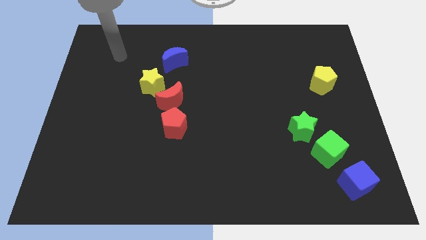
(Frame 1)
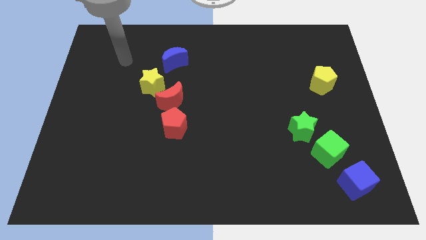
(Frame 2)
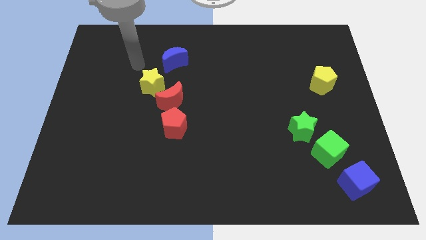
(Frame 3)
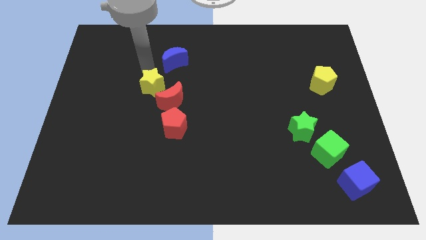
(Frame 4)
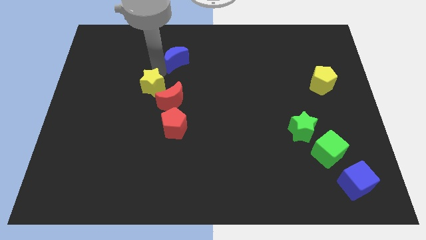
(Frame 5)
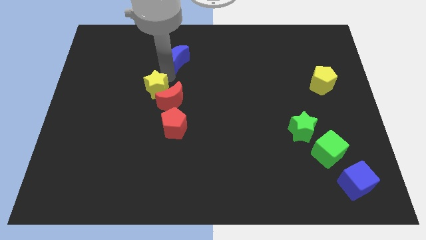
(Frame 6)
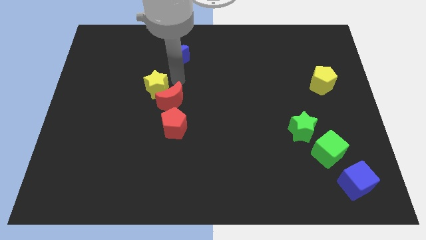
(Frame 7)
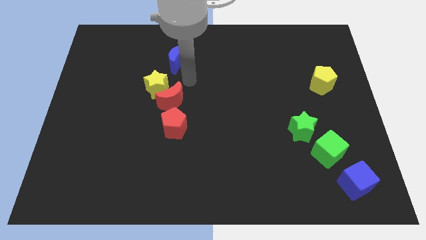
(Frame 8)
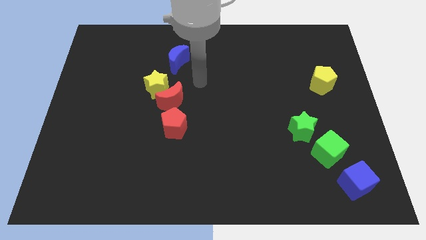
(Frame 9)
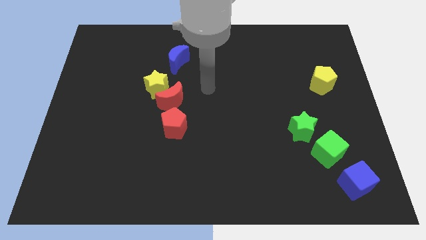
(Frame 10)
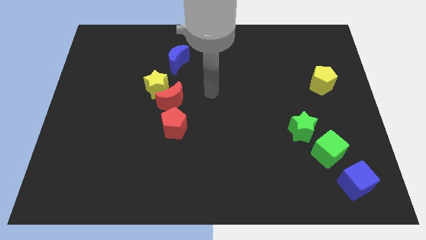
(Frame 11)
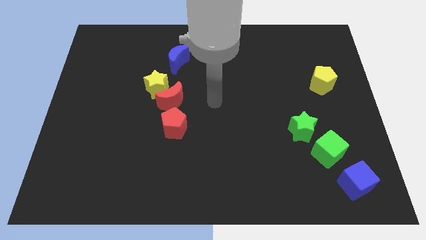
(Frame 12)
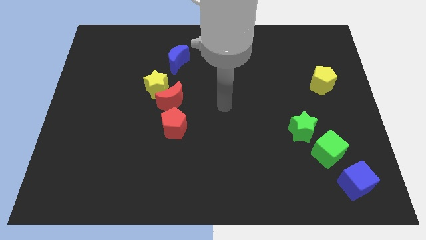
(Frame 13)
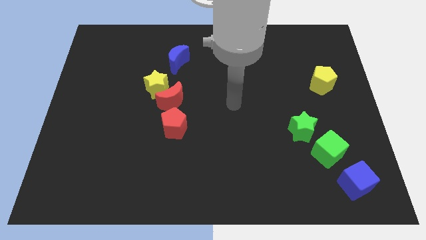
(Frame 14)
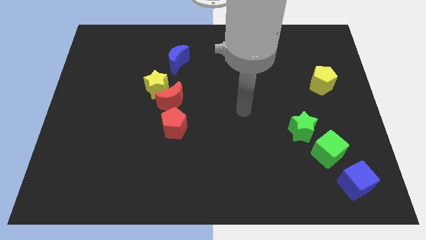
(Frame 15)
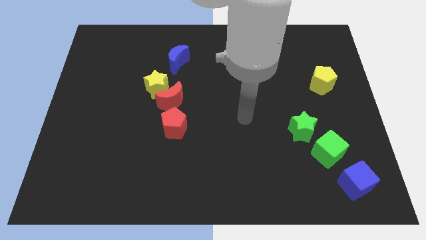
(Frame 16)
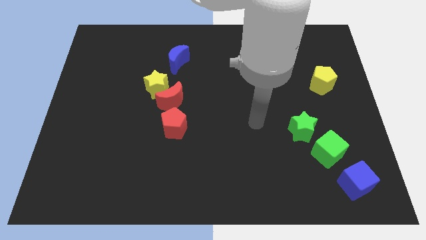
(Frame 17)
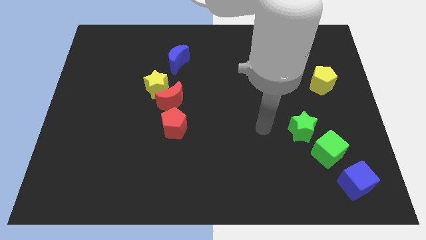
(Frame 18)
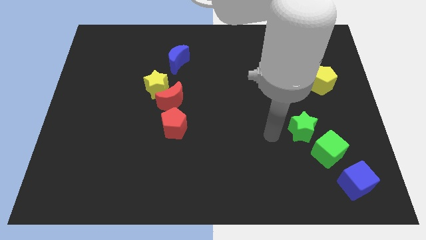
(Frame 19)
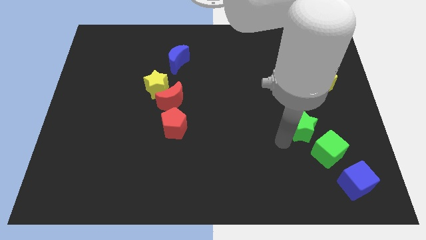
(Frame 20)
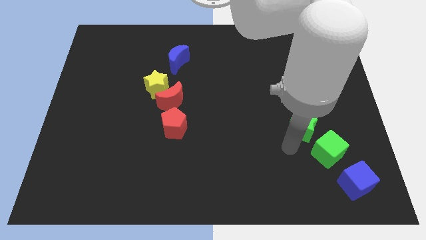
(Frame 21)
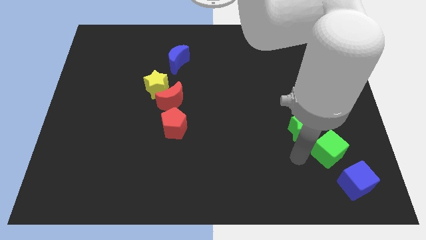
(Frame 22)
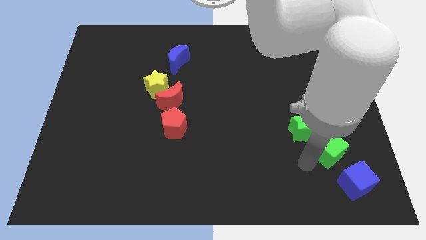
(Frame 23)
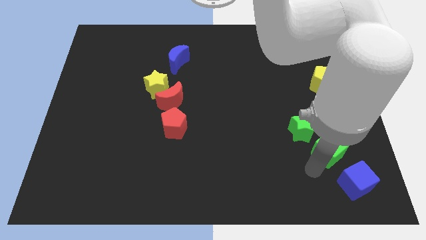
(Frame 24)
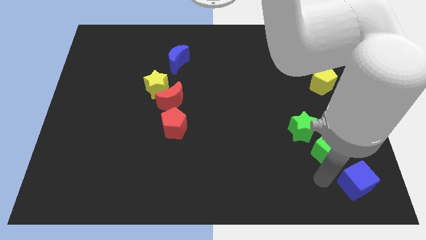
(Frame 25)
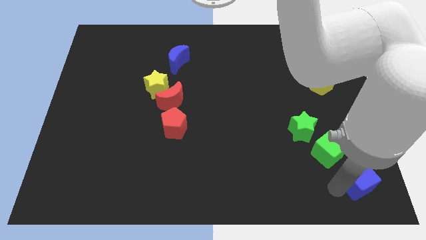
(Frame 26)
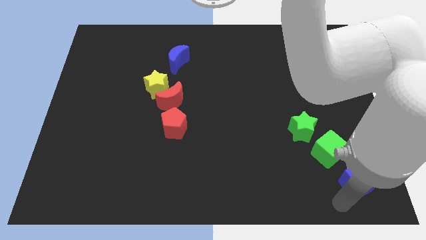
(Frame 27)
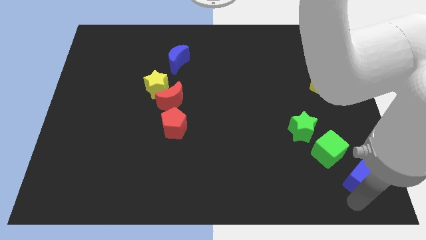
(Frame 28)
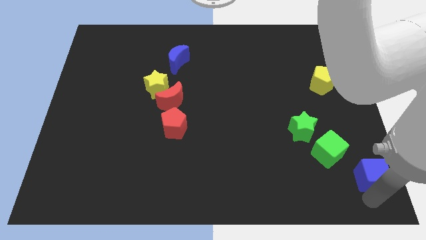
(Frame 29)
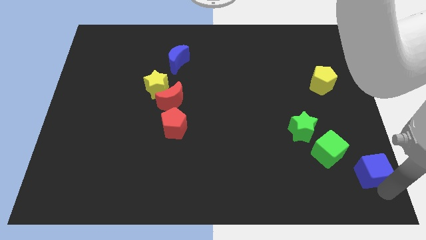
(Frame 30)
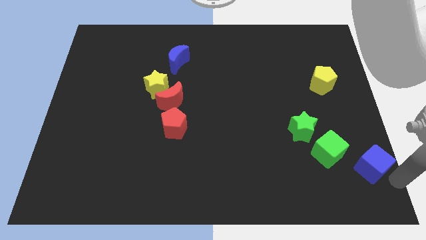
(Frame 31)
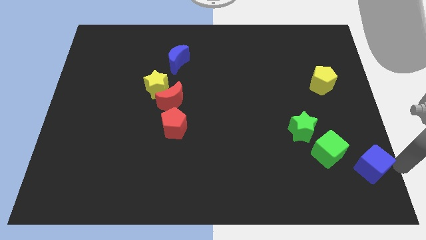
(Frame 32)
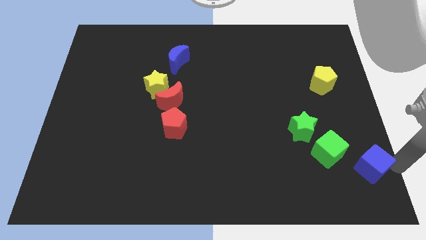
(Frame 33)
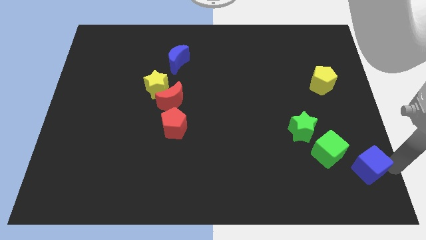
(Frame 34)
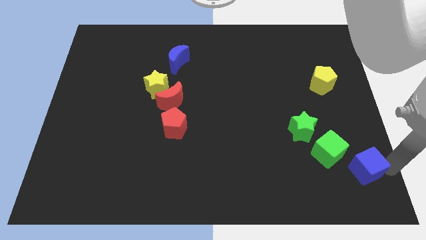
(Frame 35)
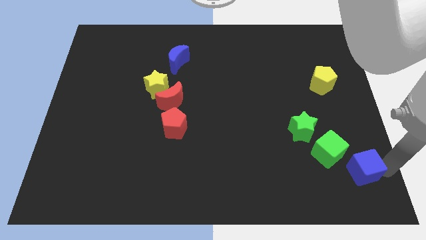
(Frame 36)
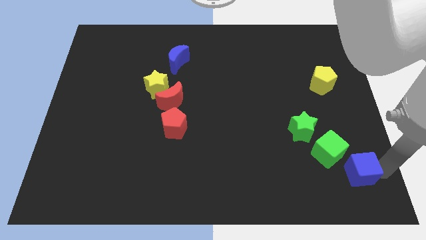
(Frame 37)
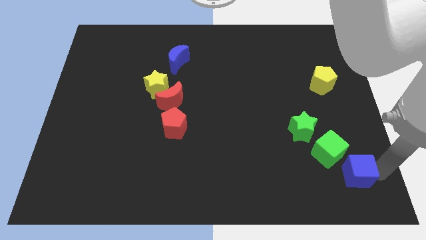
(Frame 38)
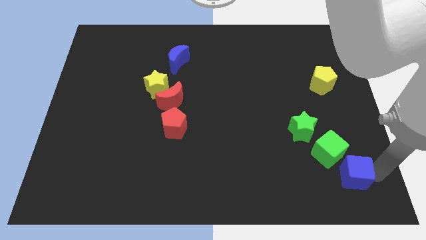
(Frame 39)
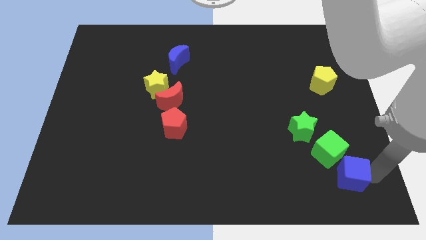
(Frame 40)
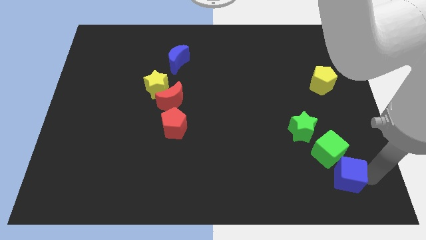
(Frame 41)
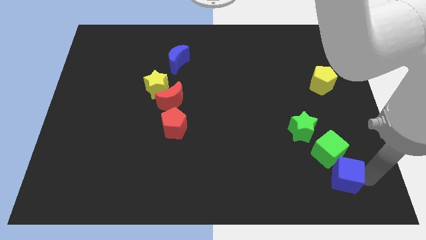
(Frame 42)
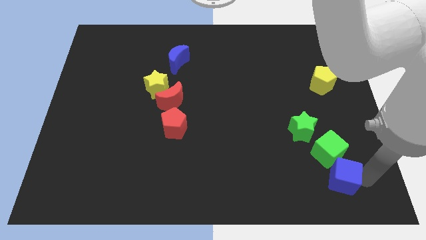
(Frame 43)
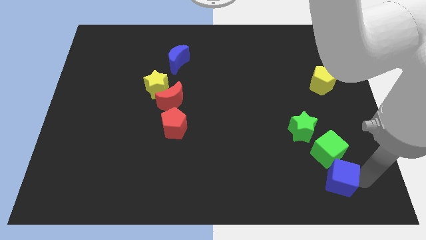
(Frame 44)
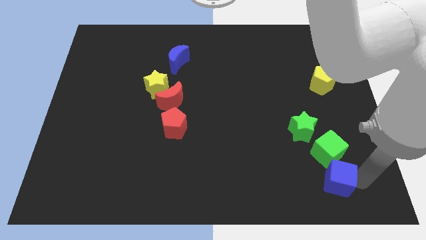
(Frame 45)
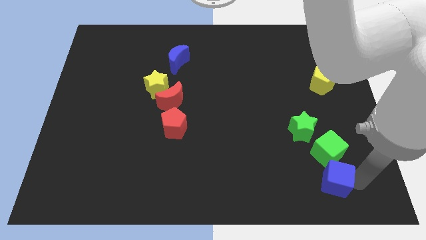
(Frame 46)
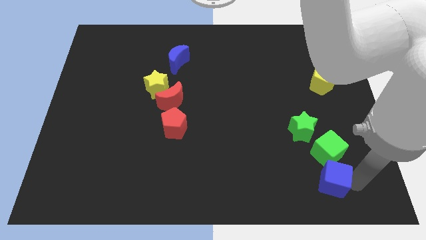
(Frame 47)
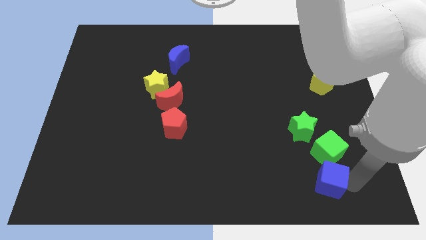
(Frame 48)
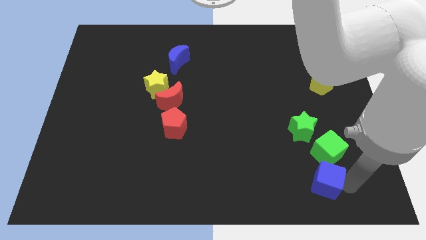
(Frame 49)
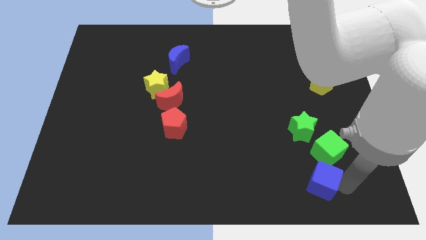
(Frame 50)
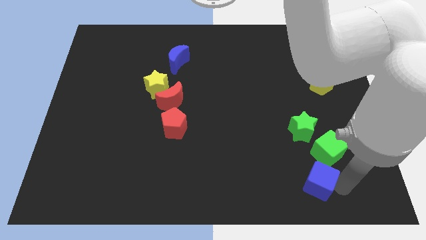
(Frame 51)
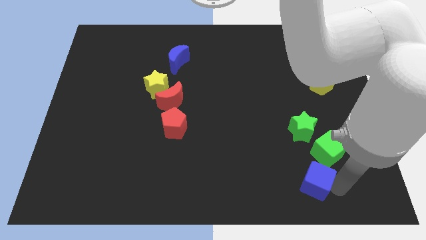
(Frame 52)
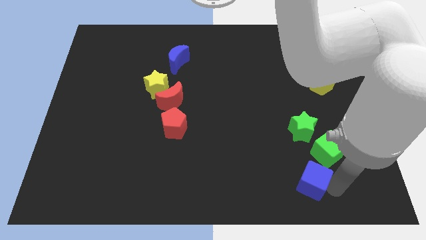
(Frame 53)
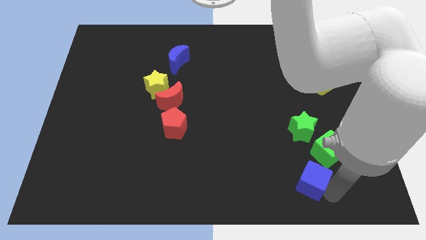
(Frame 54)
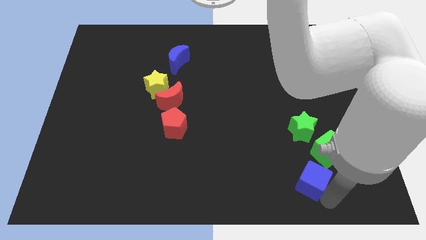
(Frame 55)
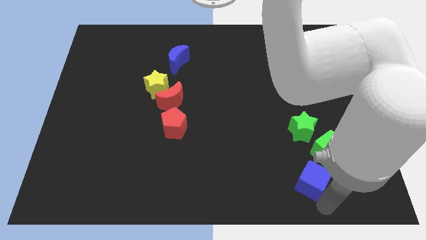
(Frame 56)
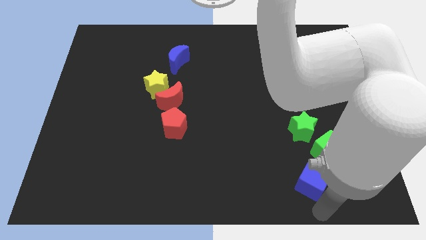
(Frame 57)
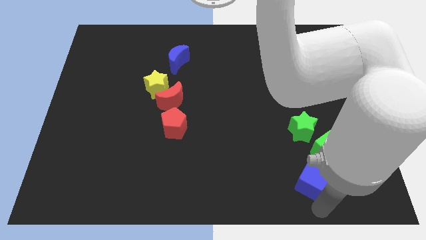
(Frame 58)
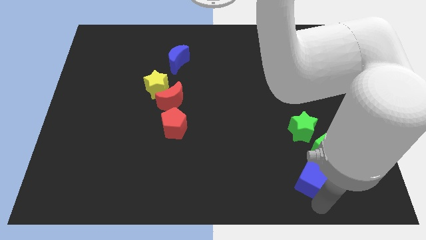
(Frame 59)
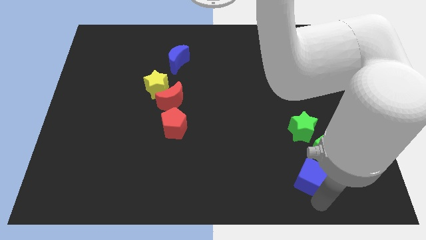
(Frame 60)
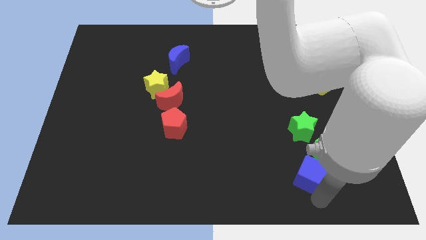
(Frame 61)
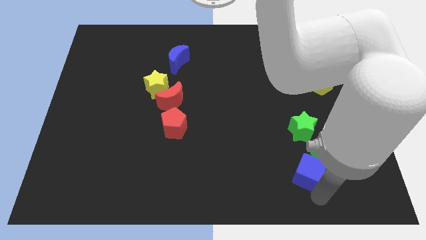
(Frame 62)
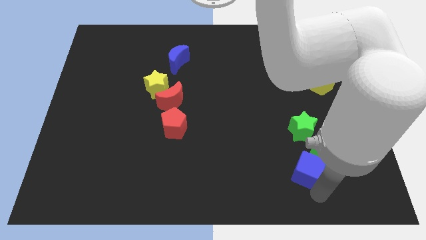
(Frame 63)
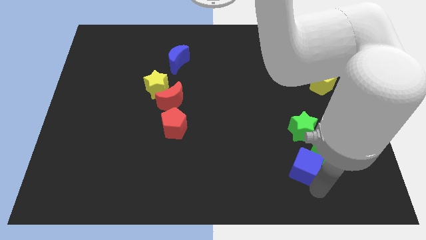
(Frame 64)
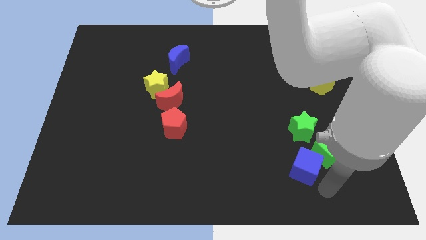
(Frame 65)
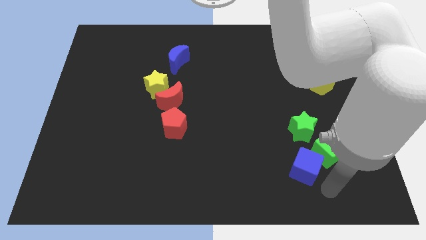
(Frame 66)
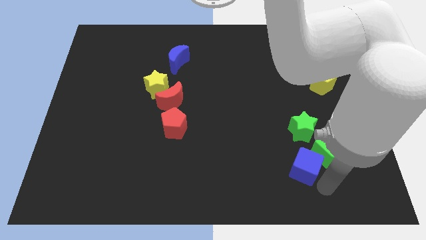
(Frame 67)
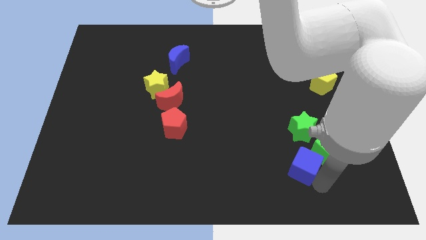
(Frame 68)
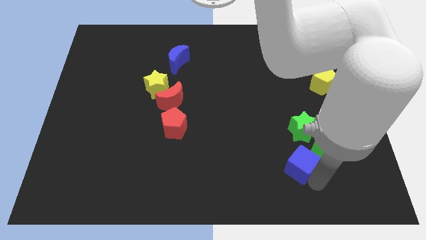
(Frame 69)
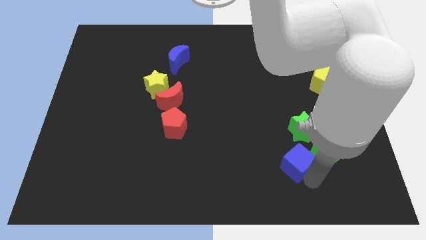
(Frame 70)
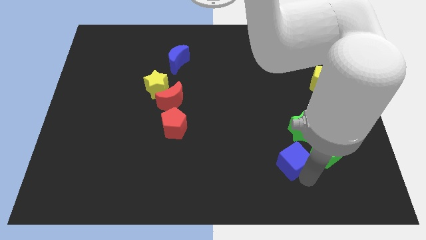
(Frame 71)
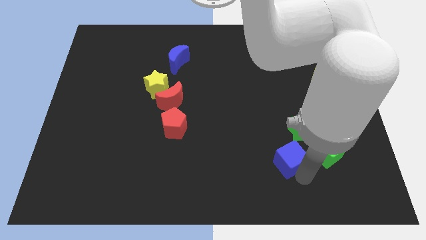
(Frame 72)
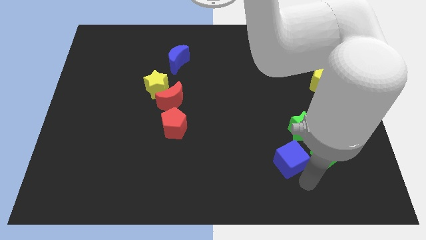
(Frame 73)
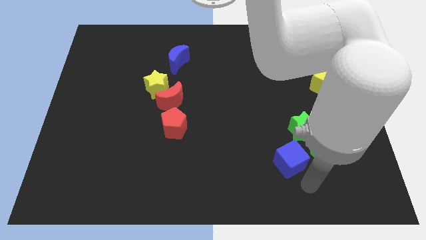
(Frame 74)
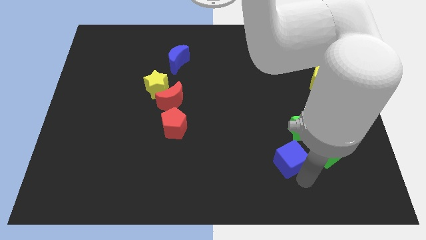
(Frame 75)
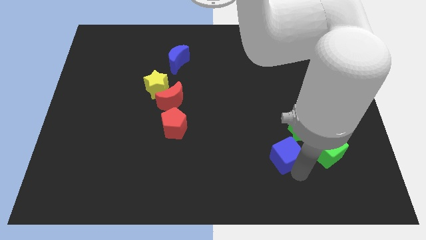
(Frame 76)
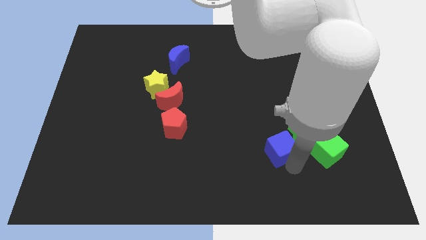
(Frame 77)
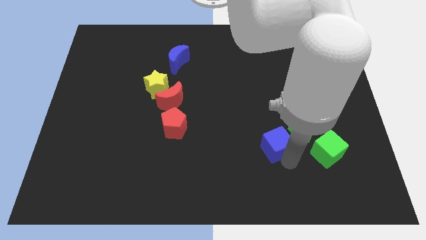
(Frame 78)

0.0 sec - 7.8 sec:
put the blue cube just left of the green star
